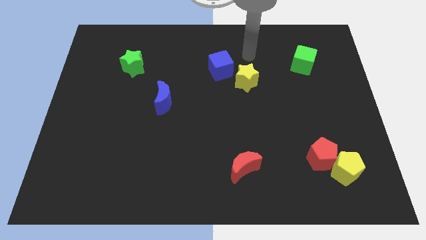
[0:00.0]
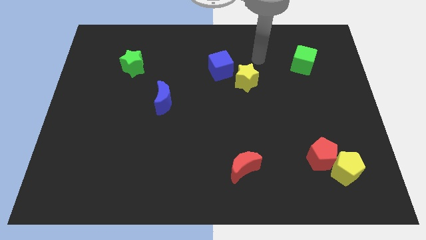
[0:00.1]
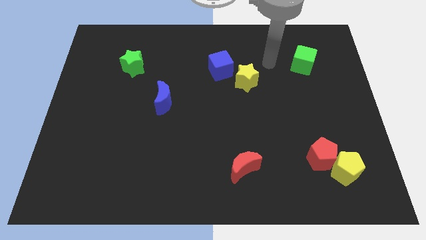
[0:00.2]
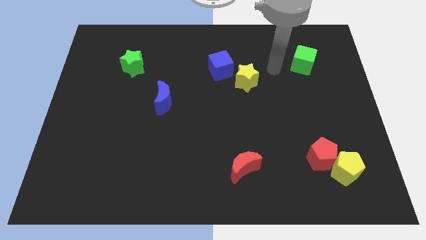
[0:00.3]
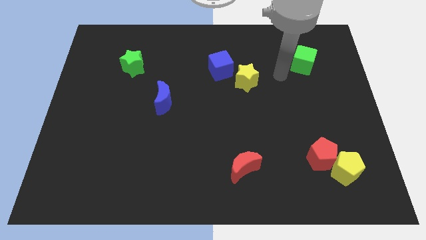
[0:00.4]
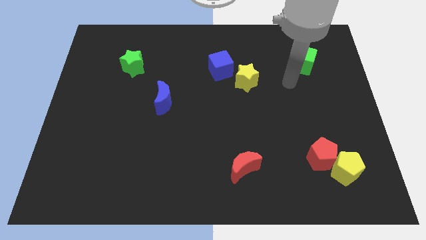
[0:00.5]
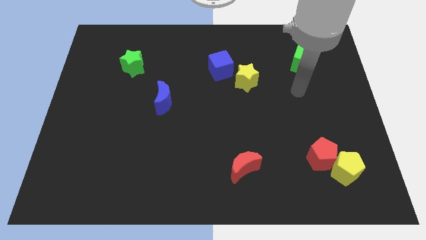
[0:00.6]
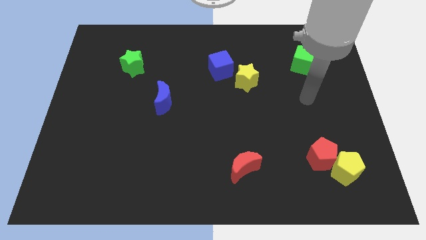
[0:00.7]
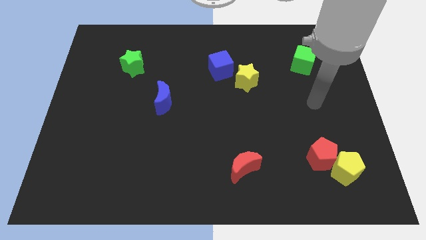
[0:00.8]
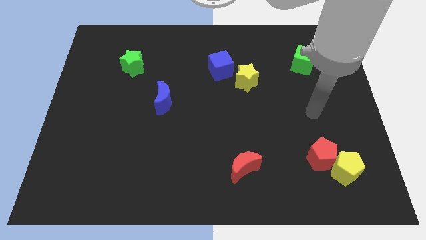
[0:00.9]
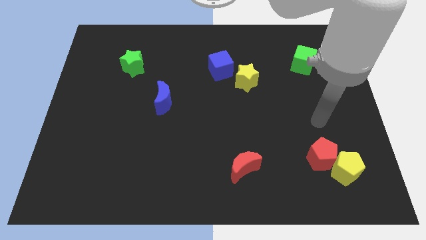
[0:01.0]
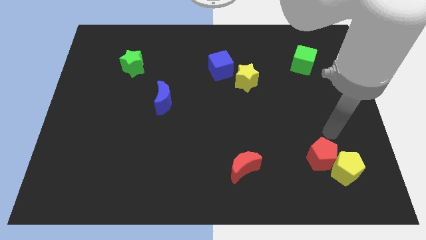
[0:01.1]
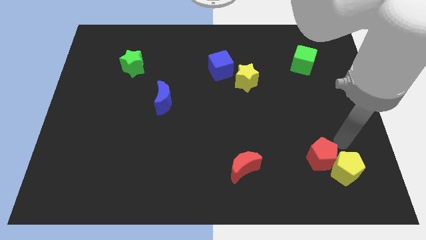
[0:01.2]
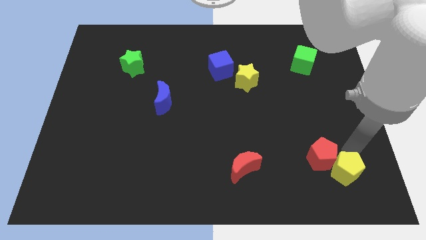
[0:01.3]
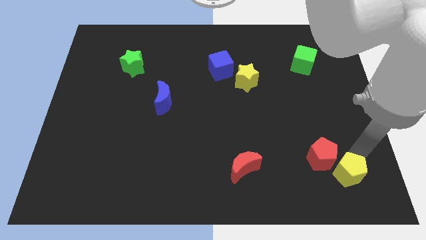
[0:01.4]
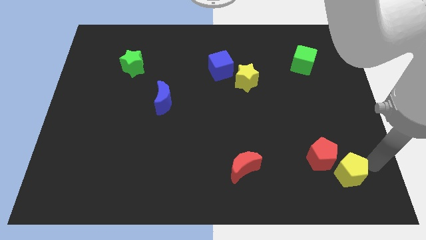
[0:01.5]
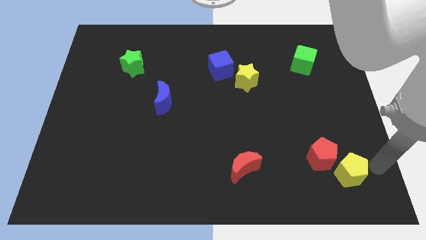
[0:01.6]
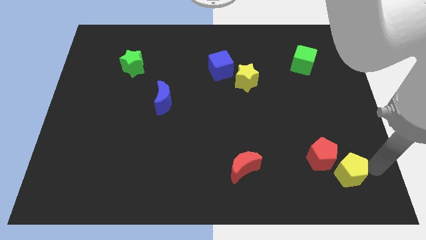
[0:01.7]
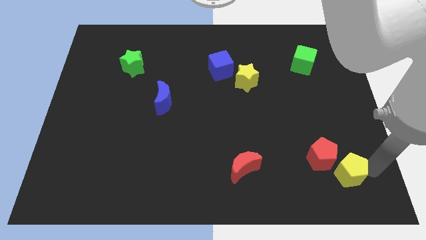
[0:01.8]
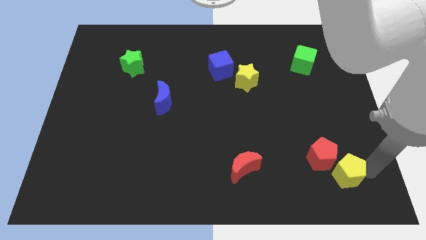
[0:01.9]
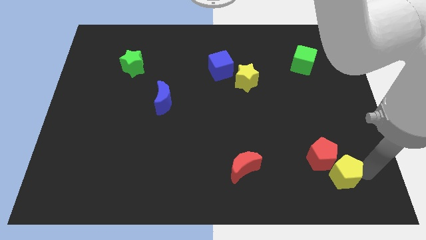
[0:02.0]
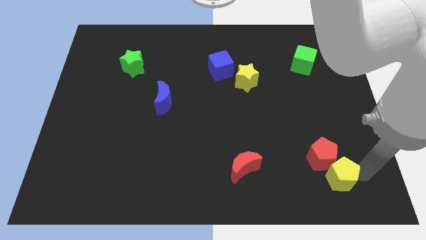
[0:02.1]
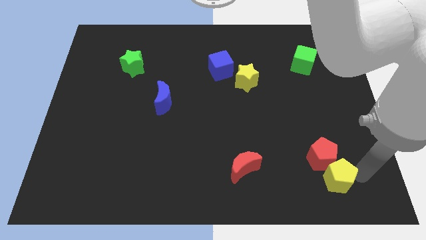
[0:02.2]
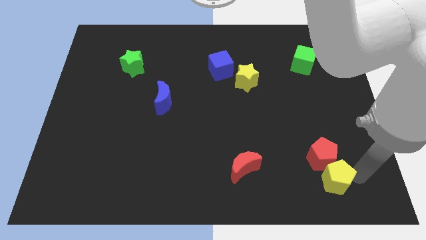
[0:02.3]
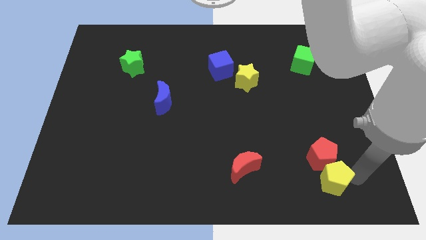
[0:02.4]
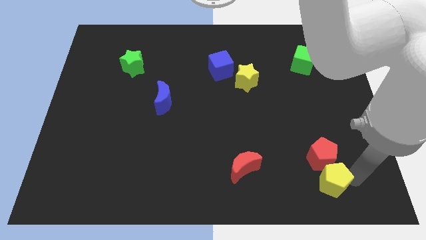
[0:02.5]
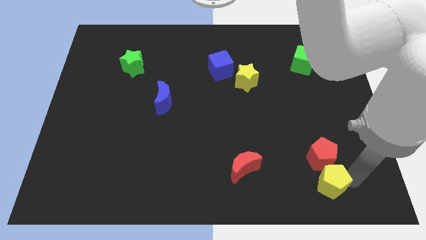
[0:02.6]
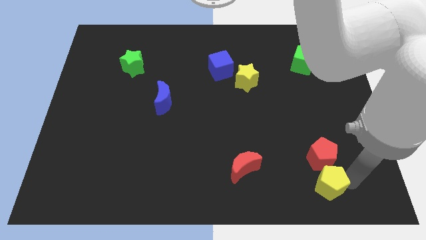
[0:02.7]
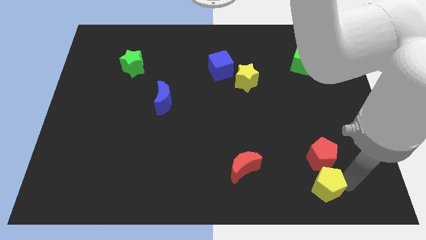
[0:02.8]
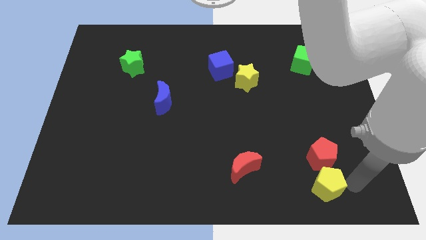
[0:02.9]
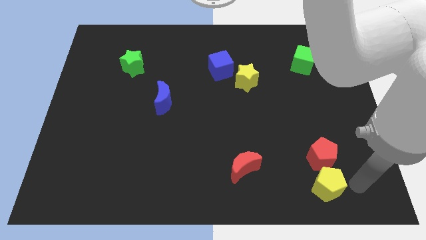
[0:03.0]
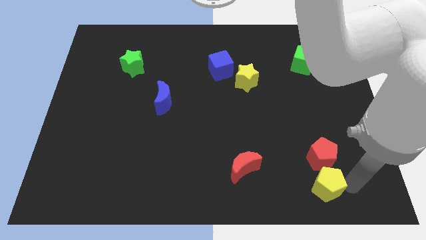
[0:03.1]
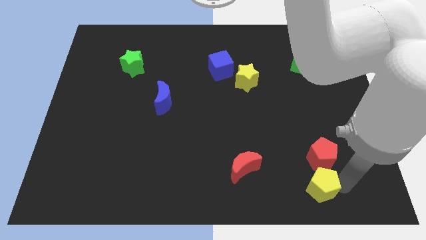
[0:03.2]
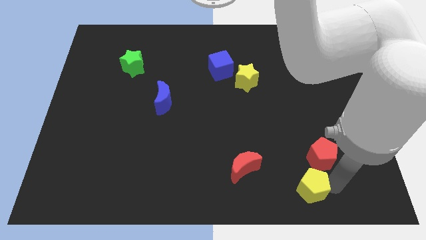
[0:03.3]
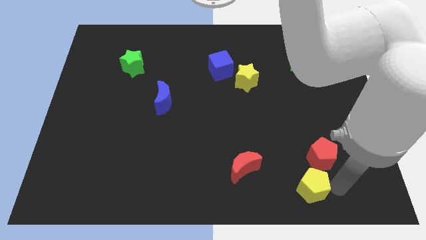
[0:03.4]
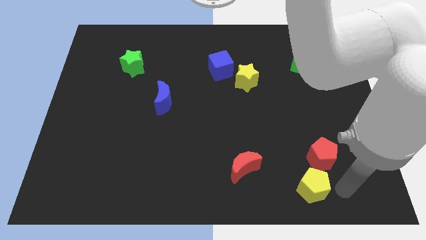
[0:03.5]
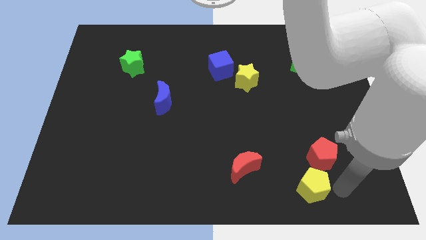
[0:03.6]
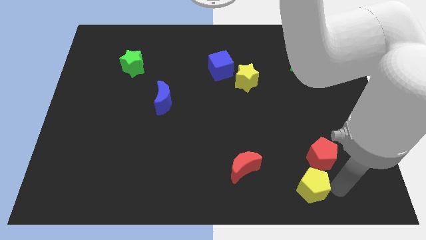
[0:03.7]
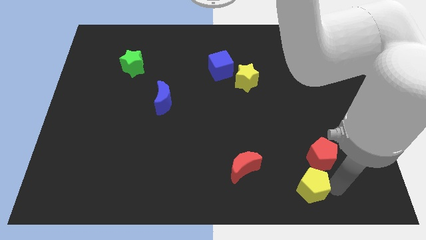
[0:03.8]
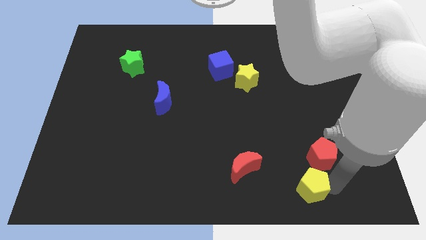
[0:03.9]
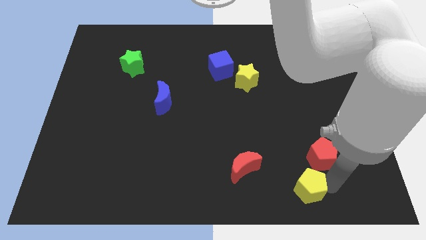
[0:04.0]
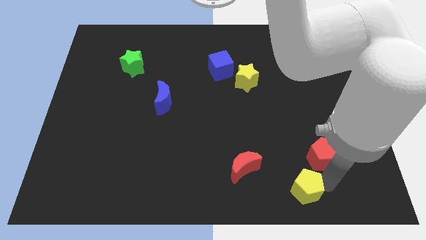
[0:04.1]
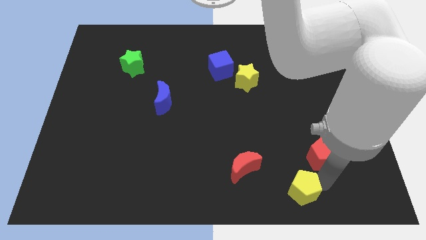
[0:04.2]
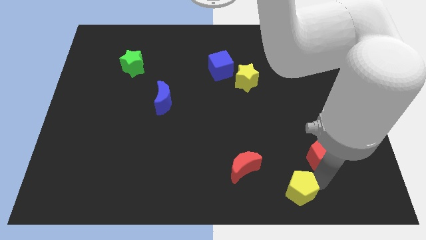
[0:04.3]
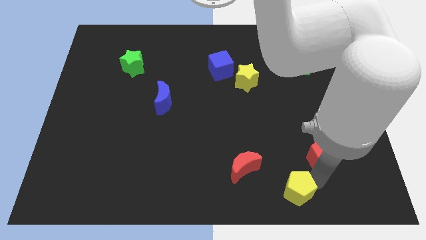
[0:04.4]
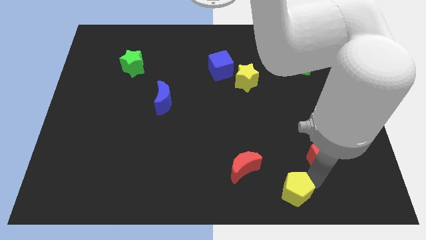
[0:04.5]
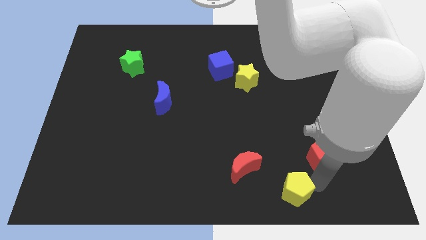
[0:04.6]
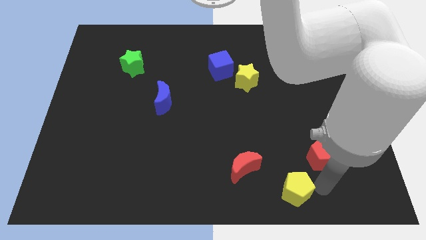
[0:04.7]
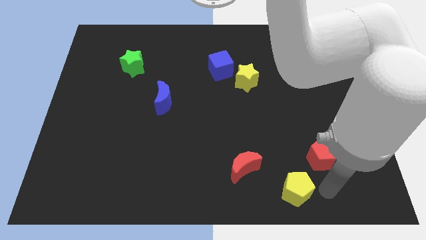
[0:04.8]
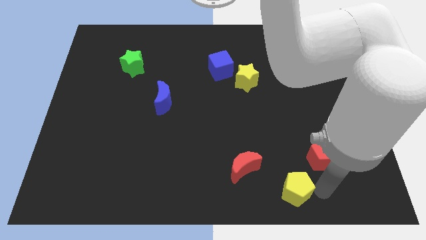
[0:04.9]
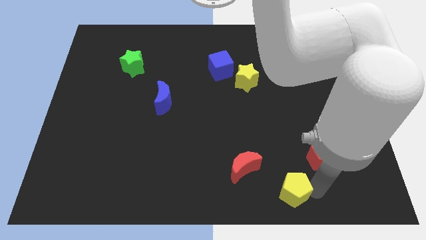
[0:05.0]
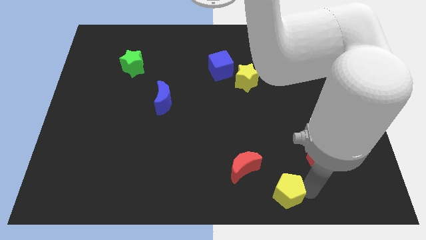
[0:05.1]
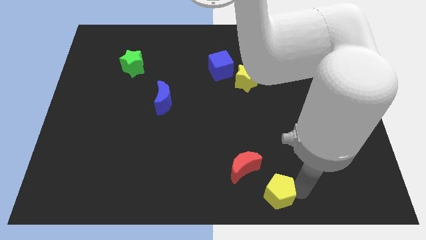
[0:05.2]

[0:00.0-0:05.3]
push the yellow pentagon to the bottom side
